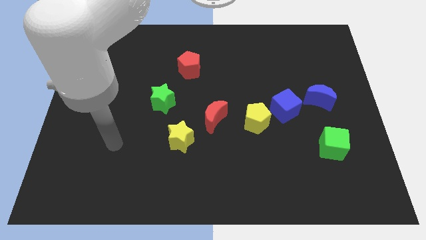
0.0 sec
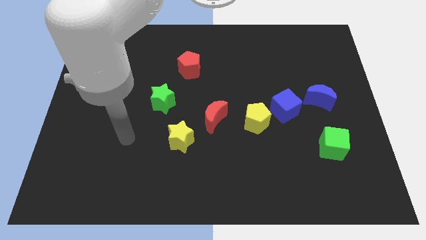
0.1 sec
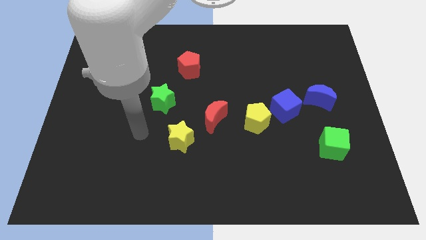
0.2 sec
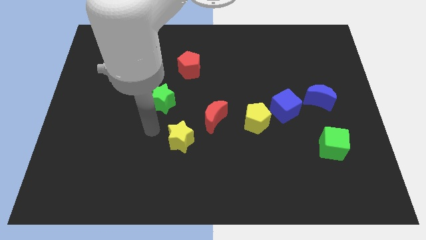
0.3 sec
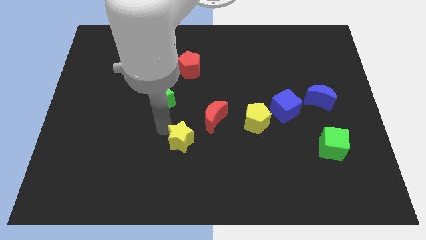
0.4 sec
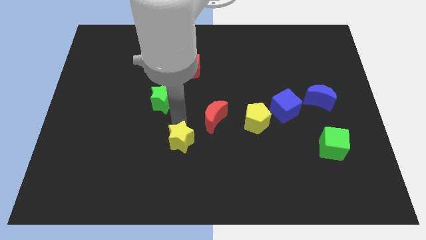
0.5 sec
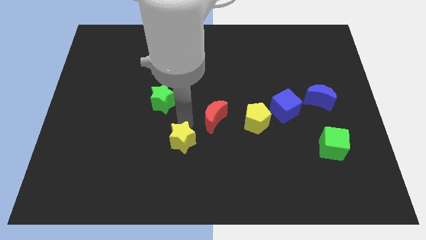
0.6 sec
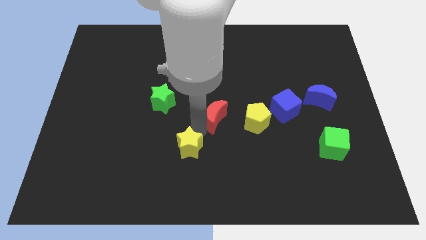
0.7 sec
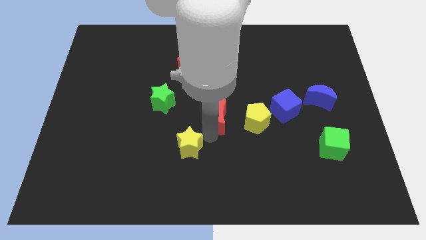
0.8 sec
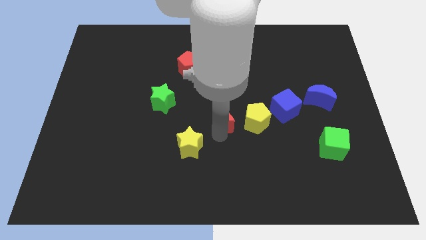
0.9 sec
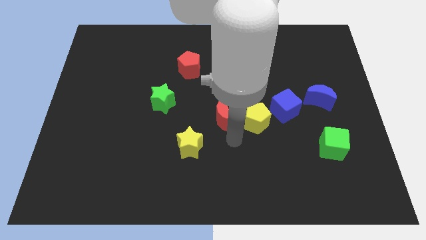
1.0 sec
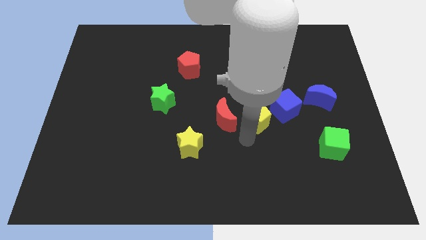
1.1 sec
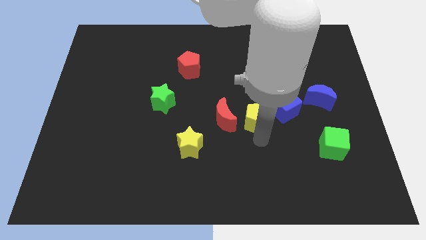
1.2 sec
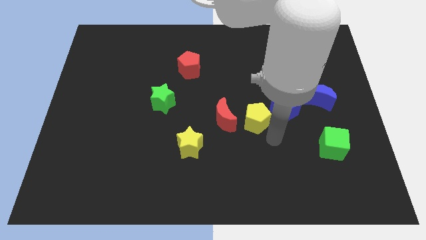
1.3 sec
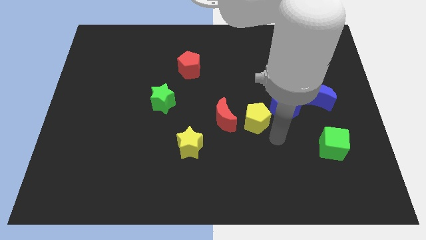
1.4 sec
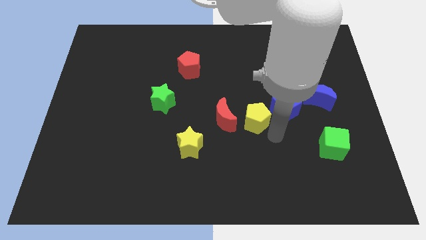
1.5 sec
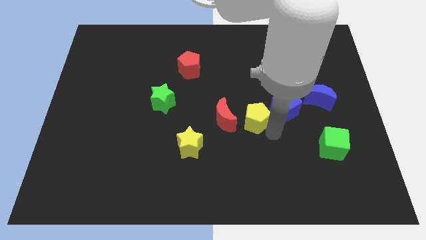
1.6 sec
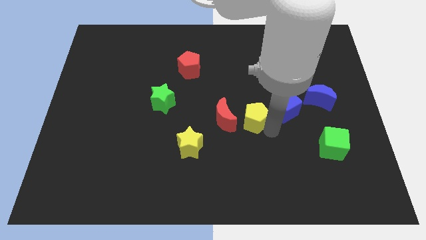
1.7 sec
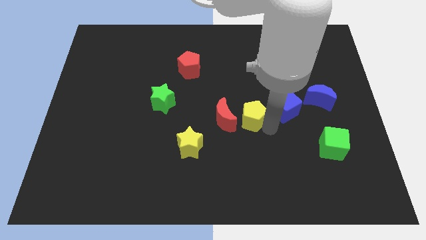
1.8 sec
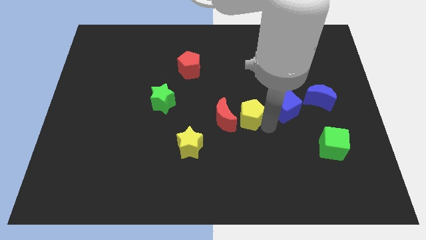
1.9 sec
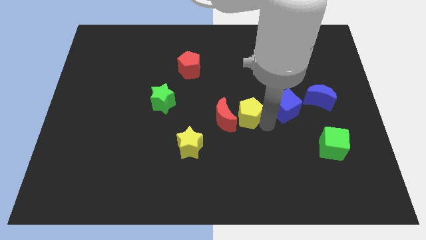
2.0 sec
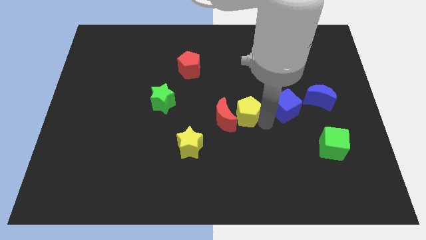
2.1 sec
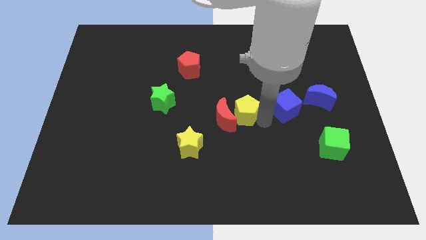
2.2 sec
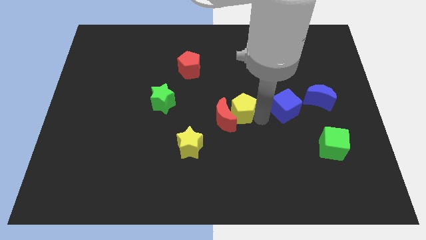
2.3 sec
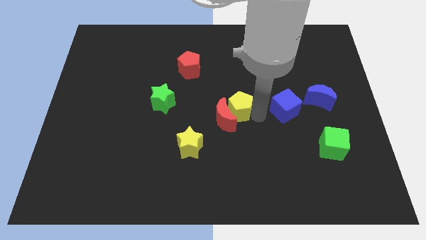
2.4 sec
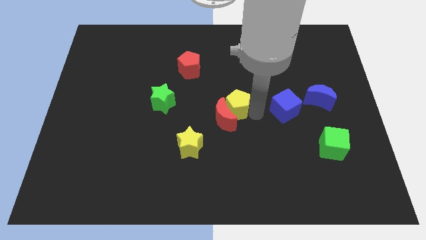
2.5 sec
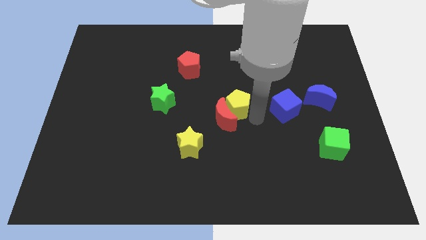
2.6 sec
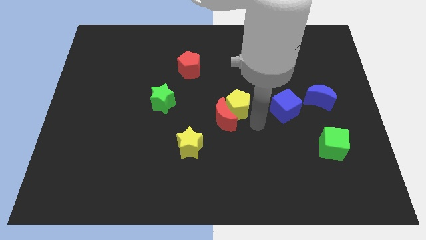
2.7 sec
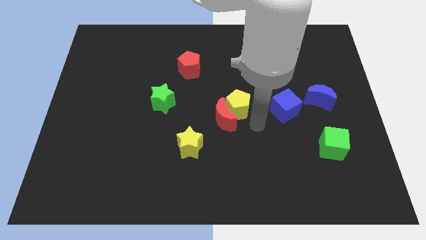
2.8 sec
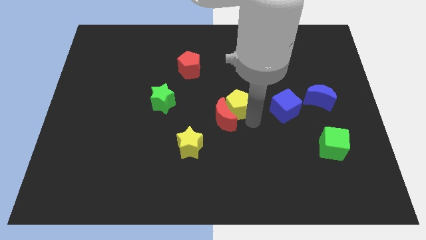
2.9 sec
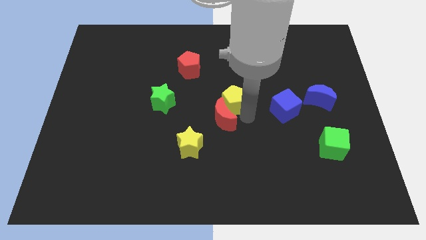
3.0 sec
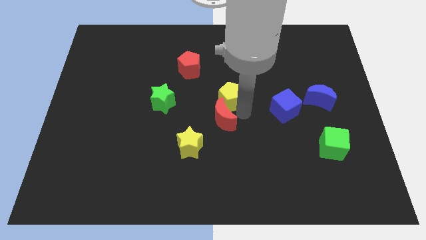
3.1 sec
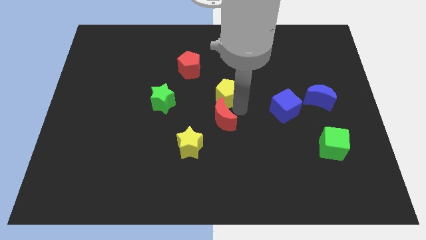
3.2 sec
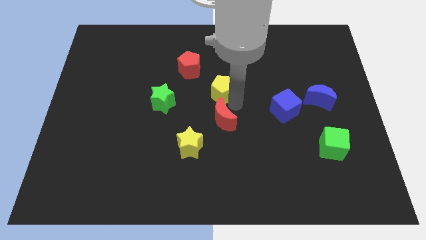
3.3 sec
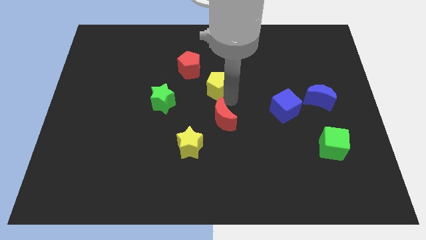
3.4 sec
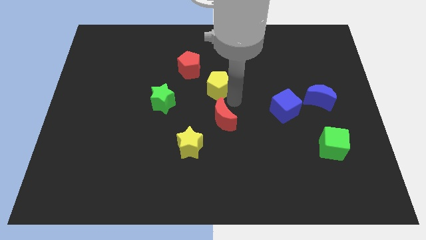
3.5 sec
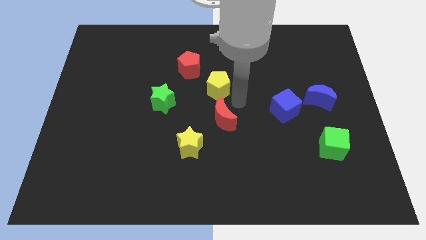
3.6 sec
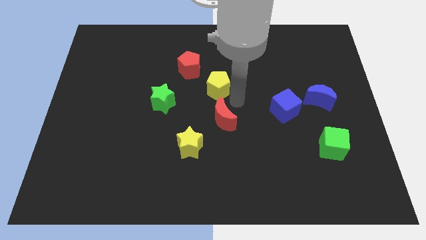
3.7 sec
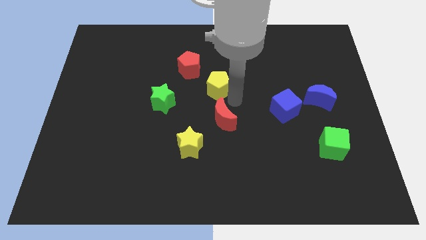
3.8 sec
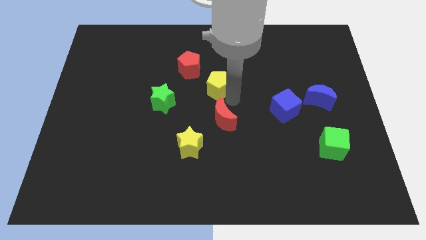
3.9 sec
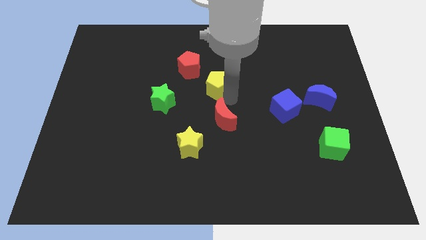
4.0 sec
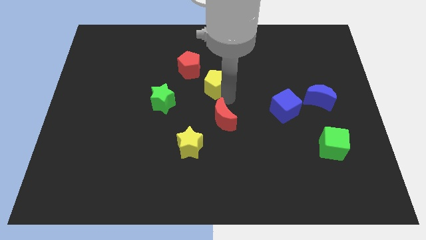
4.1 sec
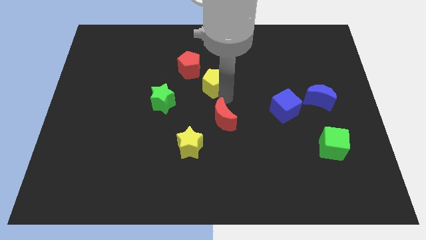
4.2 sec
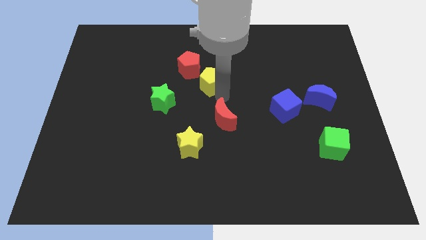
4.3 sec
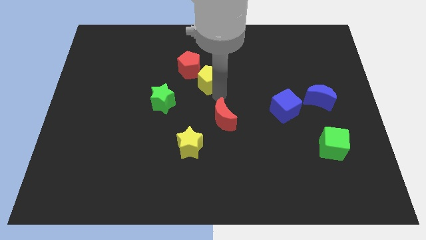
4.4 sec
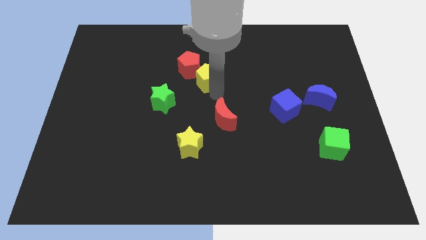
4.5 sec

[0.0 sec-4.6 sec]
push the yellow pentagon towards the red pentagon

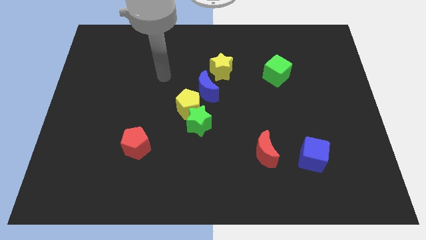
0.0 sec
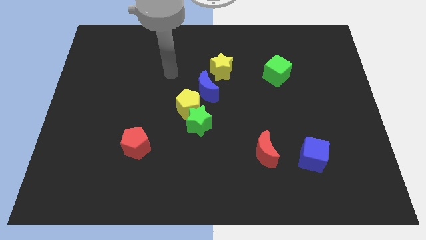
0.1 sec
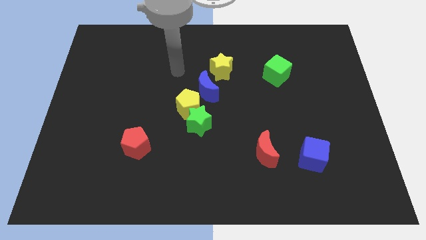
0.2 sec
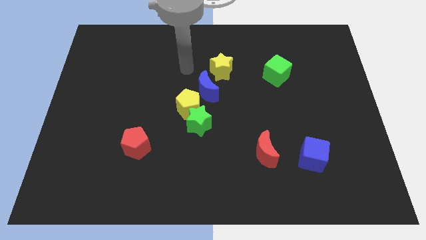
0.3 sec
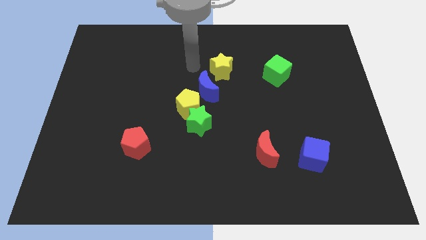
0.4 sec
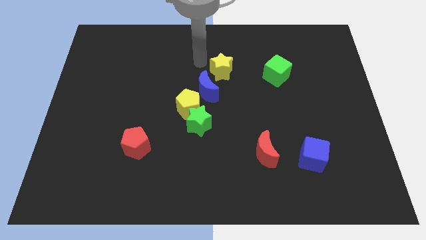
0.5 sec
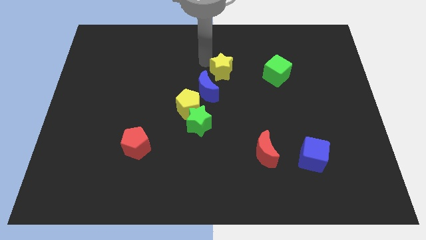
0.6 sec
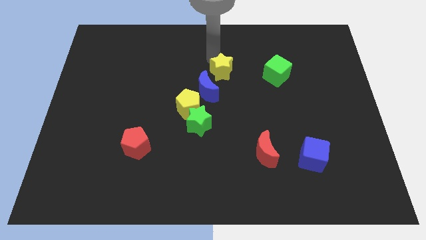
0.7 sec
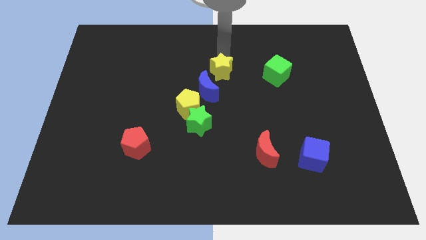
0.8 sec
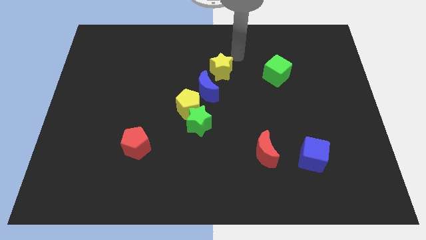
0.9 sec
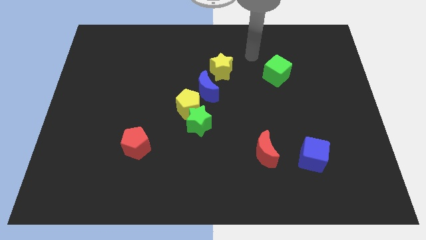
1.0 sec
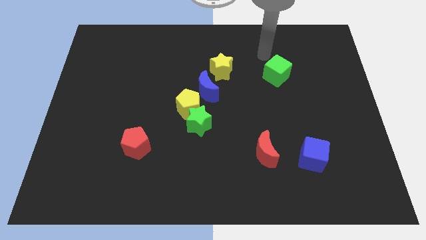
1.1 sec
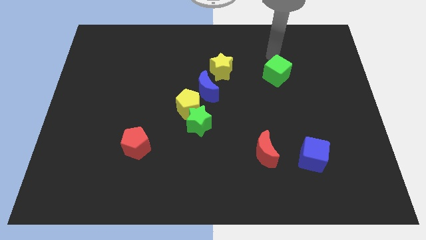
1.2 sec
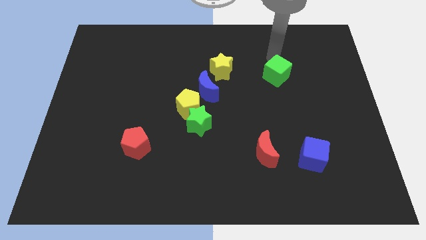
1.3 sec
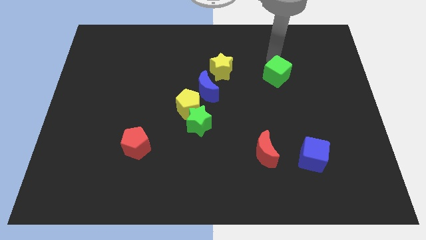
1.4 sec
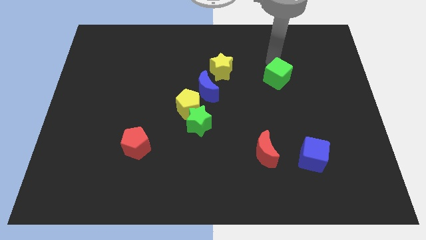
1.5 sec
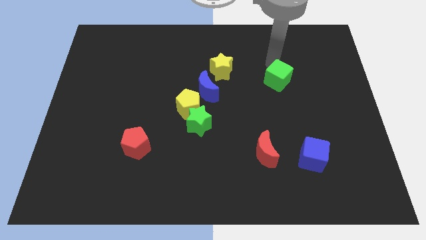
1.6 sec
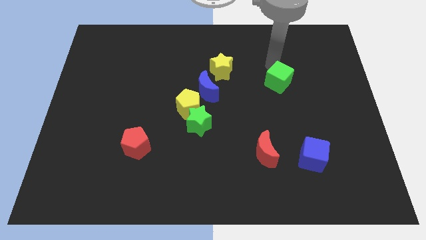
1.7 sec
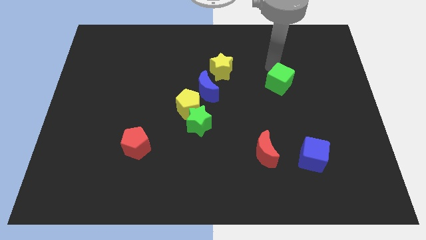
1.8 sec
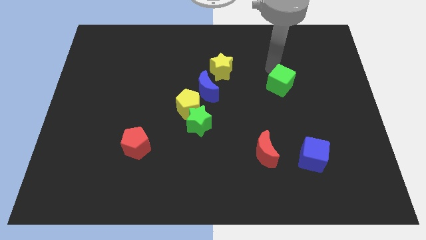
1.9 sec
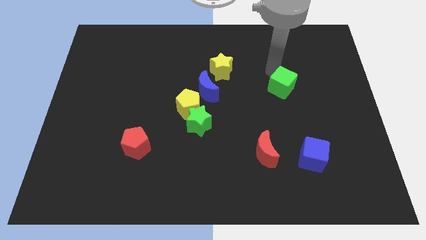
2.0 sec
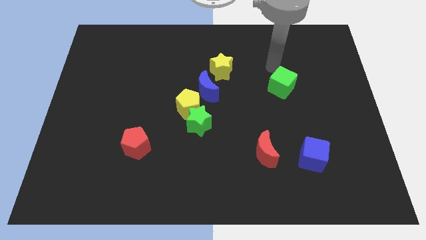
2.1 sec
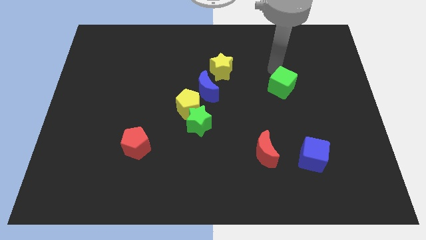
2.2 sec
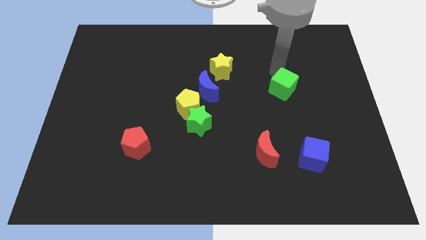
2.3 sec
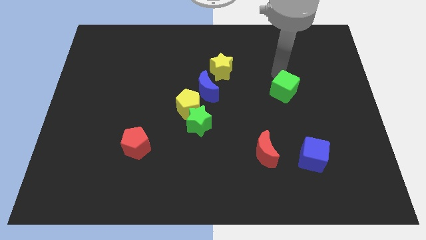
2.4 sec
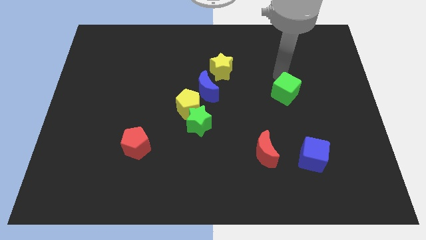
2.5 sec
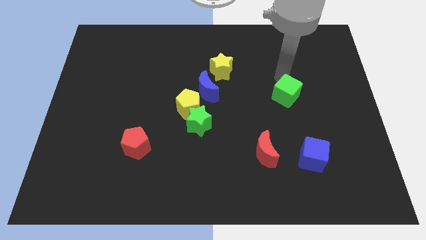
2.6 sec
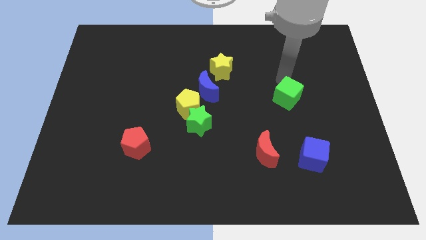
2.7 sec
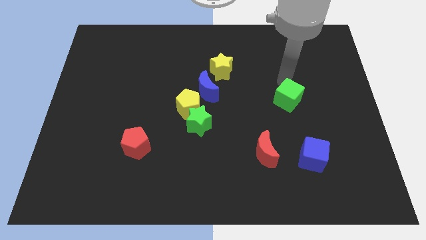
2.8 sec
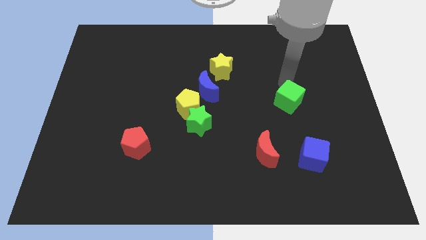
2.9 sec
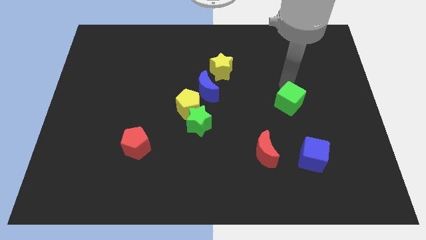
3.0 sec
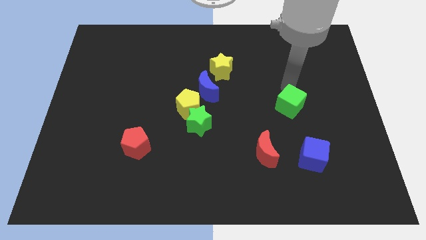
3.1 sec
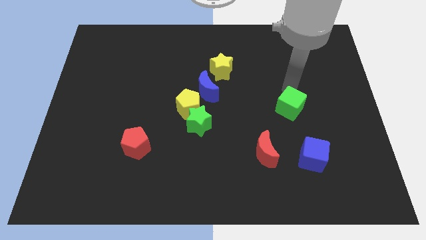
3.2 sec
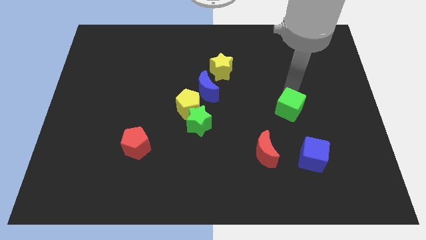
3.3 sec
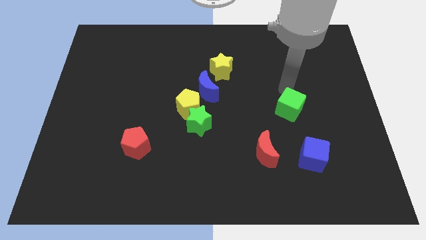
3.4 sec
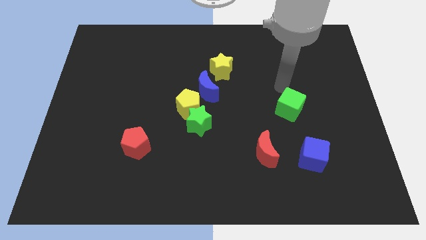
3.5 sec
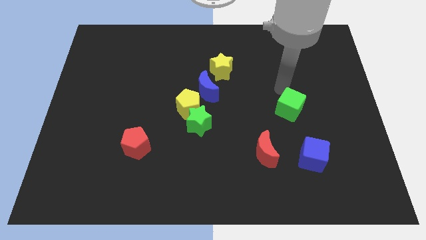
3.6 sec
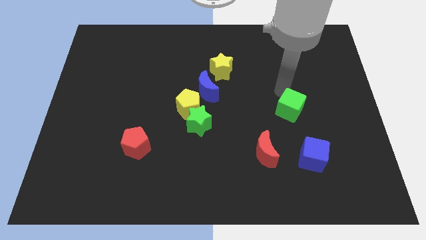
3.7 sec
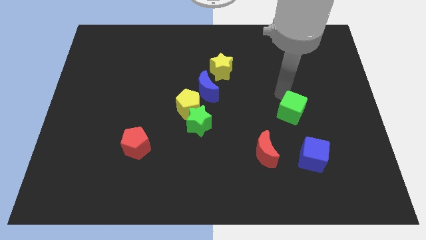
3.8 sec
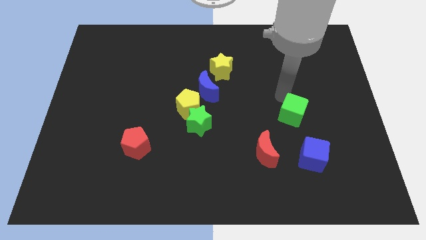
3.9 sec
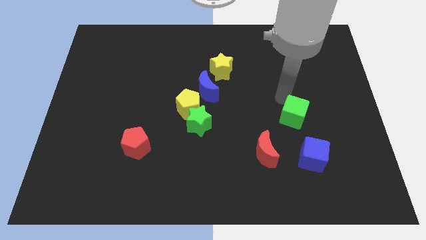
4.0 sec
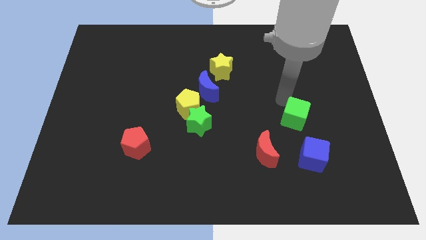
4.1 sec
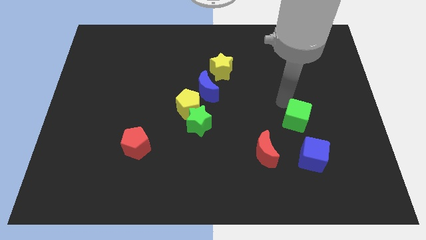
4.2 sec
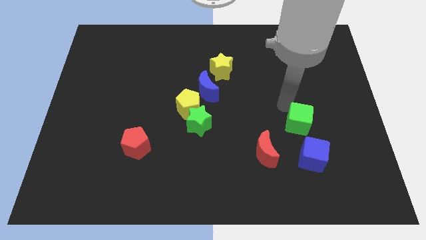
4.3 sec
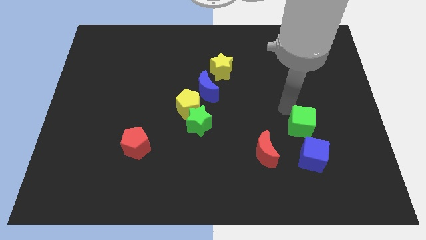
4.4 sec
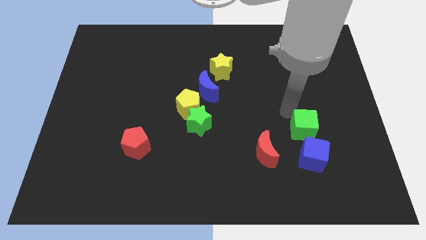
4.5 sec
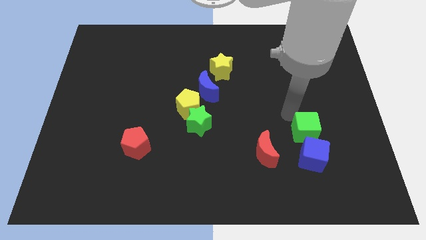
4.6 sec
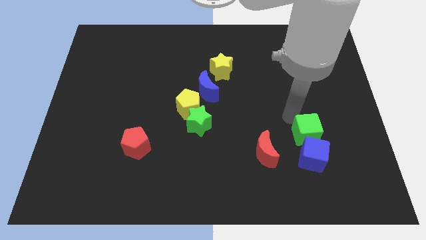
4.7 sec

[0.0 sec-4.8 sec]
put the green cube next to the blue cube
